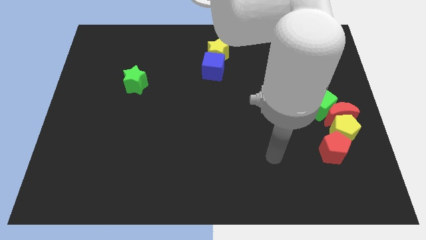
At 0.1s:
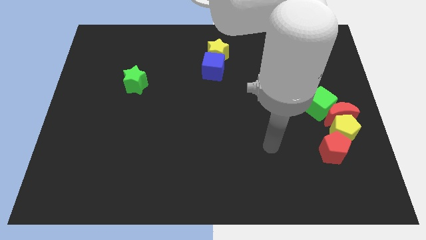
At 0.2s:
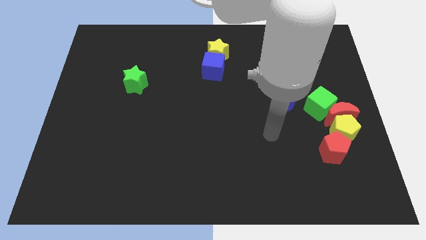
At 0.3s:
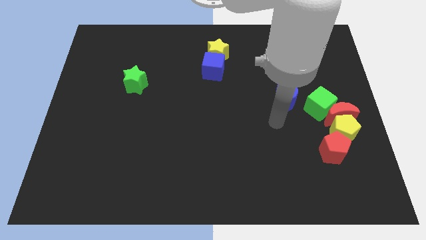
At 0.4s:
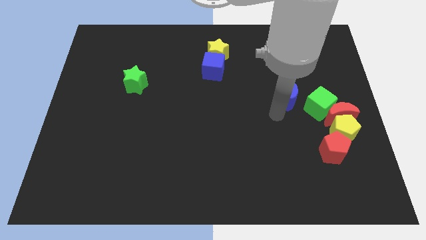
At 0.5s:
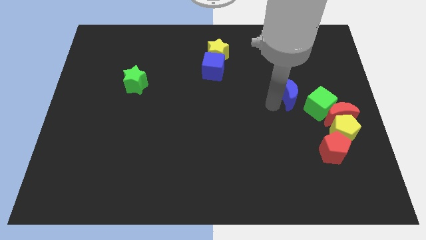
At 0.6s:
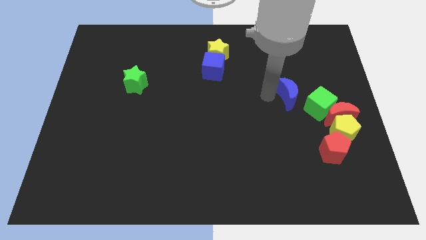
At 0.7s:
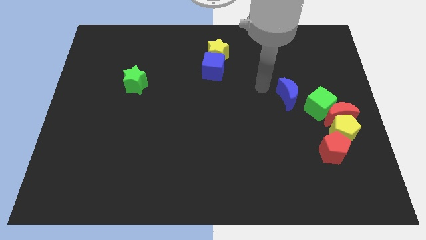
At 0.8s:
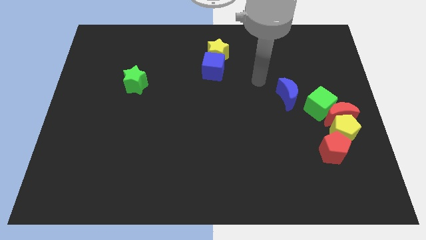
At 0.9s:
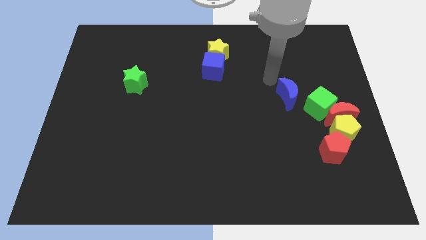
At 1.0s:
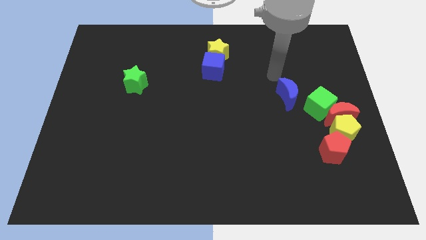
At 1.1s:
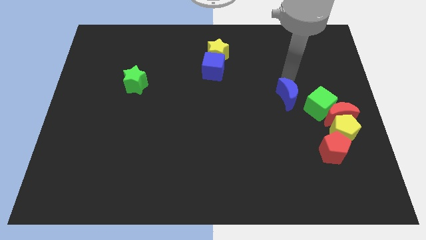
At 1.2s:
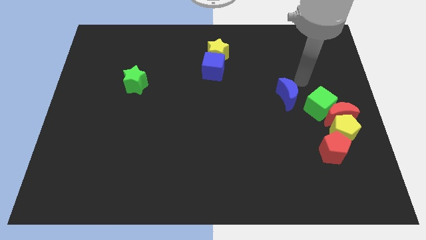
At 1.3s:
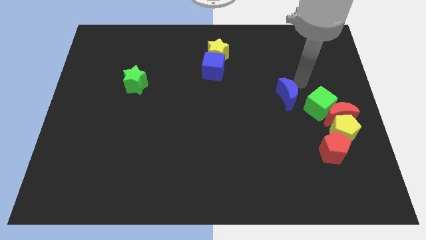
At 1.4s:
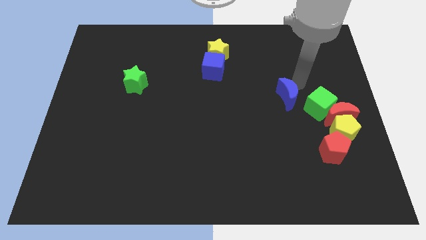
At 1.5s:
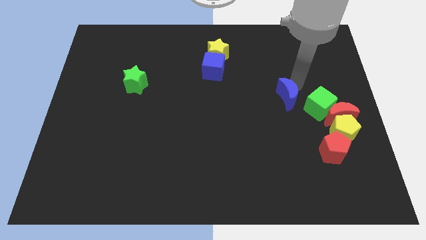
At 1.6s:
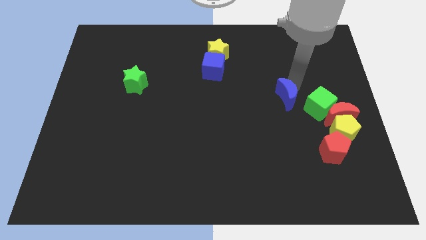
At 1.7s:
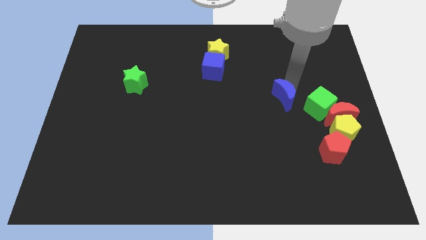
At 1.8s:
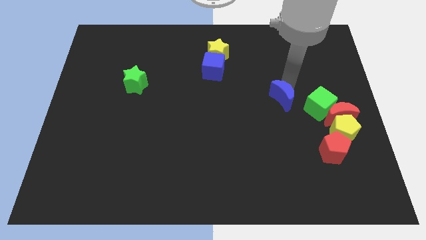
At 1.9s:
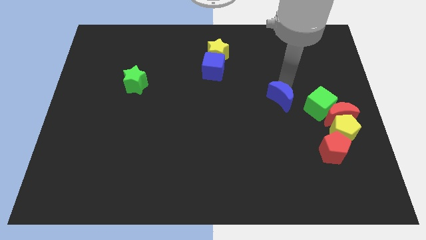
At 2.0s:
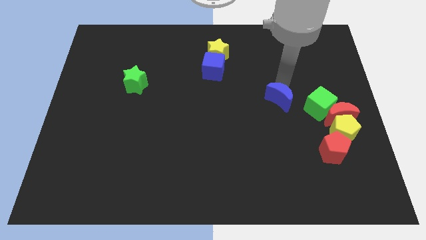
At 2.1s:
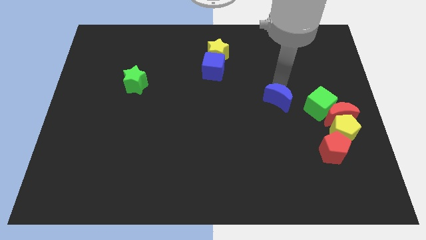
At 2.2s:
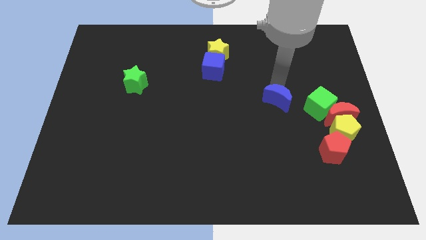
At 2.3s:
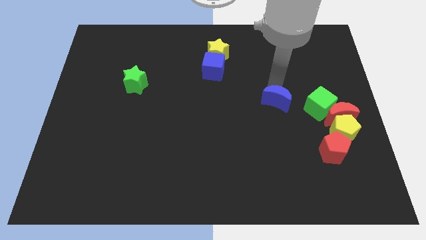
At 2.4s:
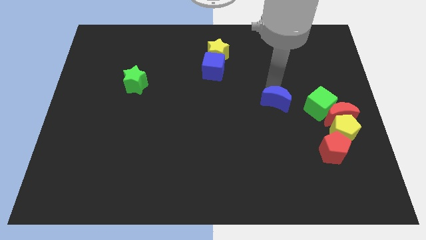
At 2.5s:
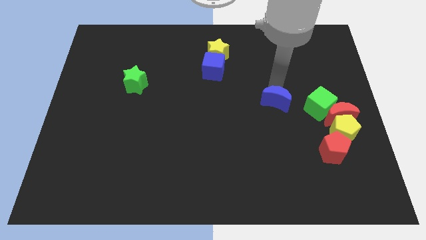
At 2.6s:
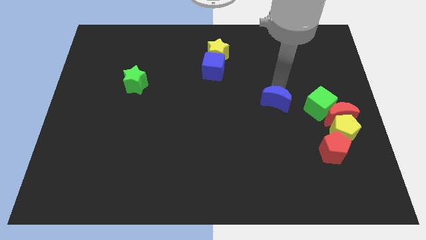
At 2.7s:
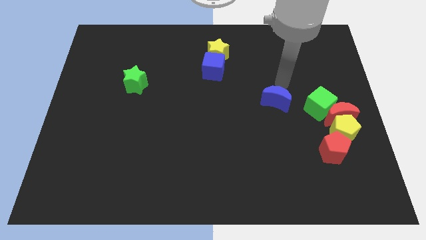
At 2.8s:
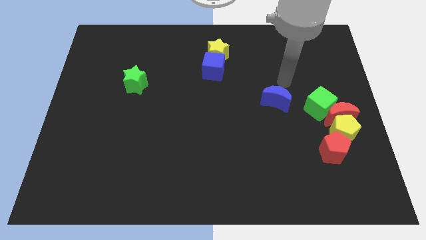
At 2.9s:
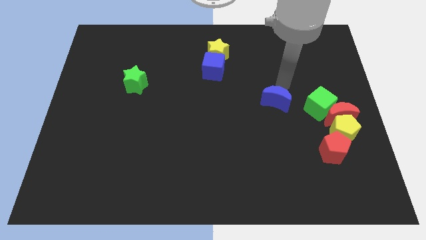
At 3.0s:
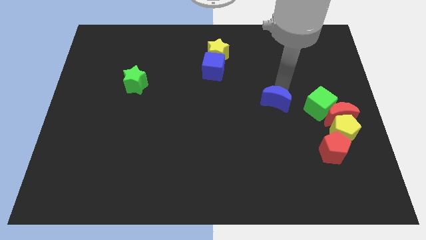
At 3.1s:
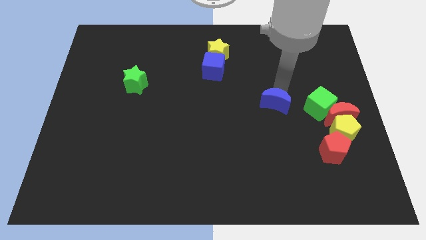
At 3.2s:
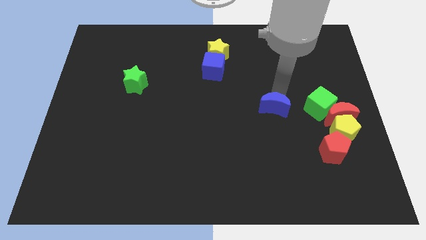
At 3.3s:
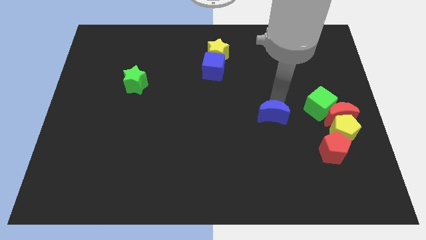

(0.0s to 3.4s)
move the blue moon down and left diagonally slightly

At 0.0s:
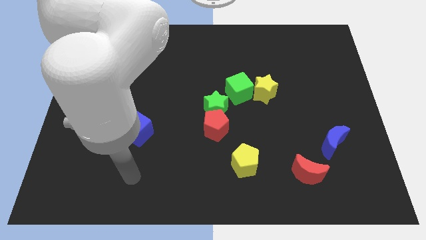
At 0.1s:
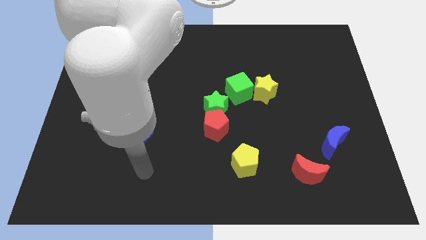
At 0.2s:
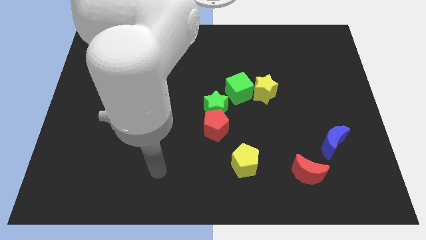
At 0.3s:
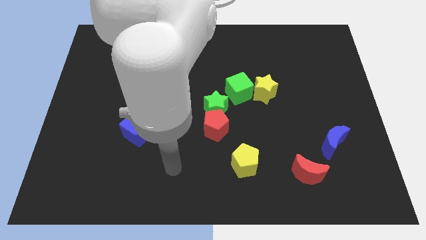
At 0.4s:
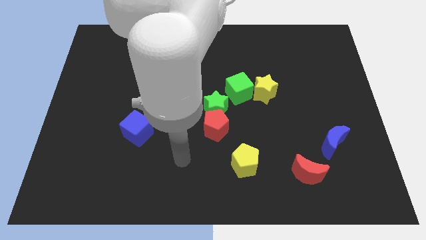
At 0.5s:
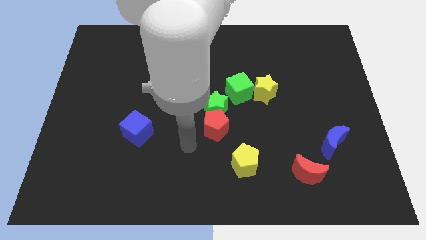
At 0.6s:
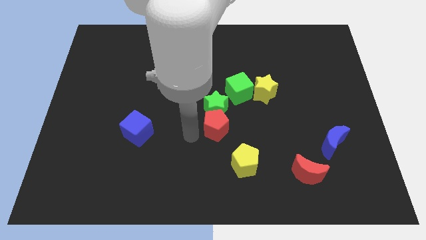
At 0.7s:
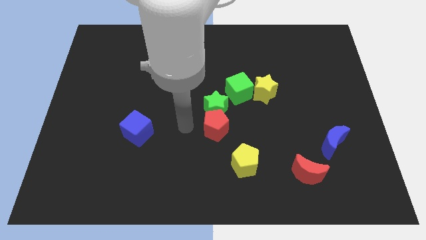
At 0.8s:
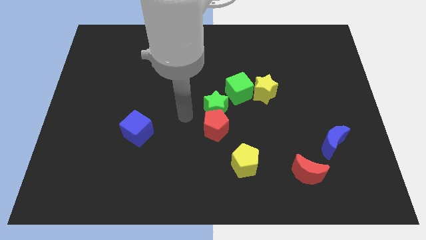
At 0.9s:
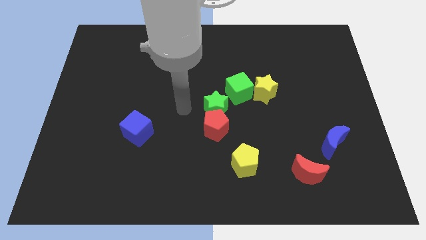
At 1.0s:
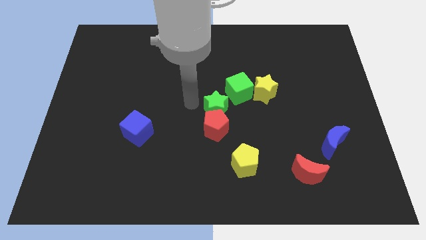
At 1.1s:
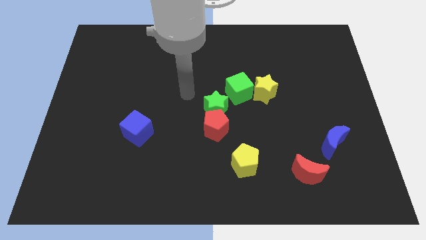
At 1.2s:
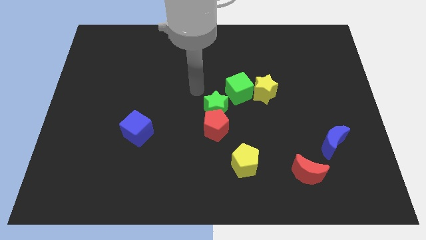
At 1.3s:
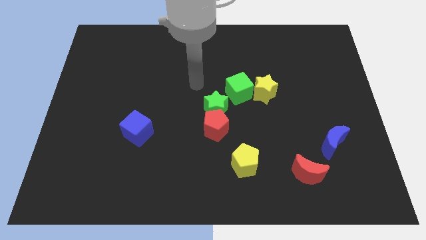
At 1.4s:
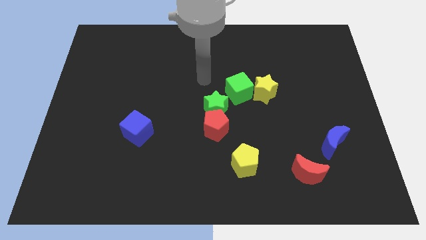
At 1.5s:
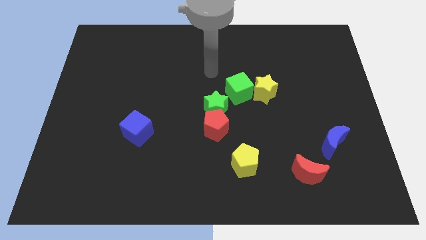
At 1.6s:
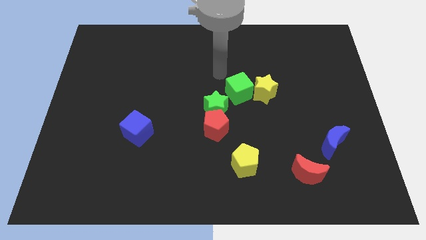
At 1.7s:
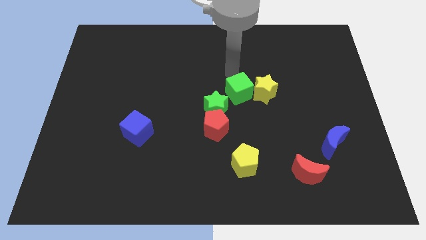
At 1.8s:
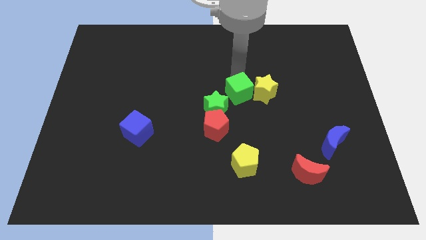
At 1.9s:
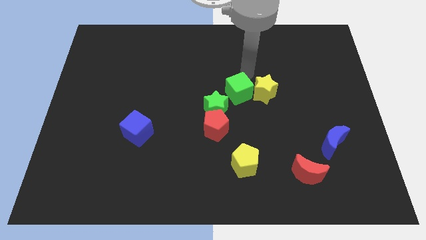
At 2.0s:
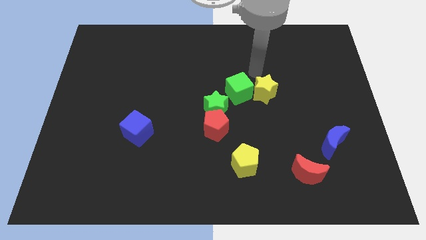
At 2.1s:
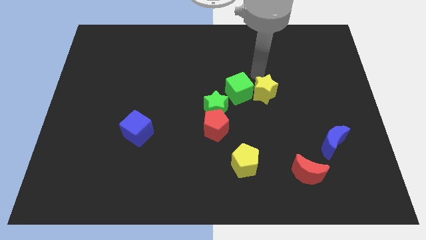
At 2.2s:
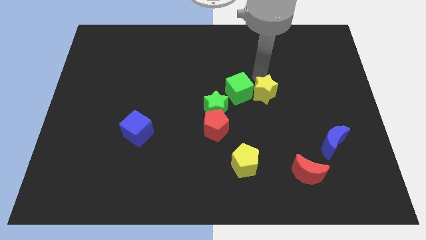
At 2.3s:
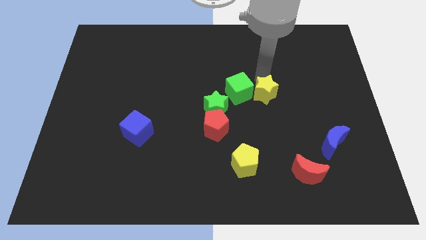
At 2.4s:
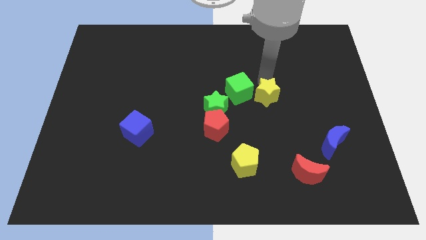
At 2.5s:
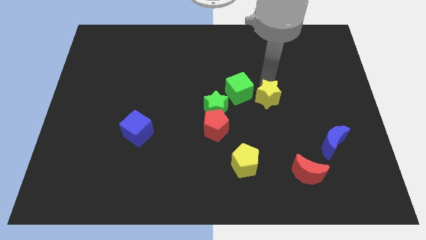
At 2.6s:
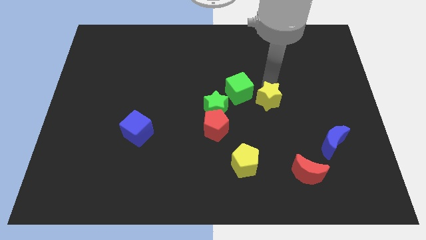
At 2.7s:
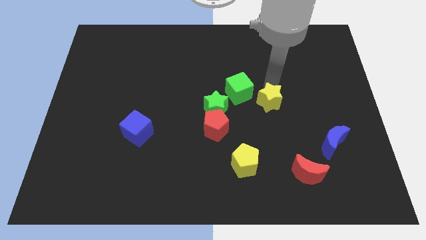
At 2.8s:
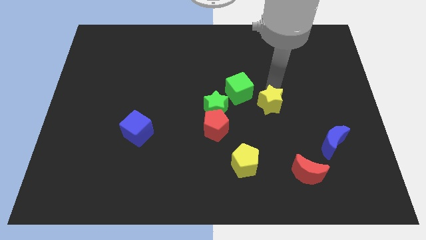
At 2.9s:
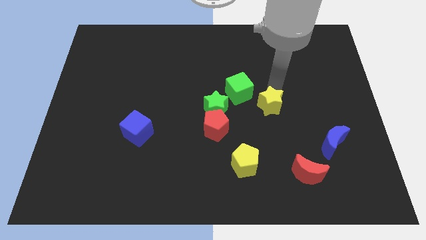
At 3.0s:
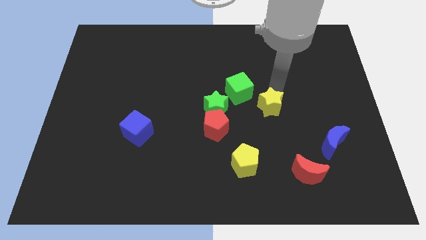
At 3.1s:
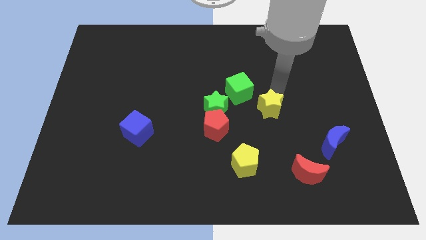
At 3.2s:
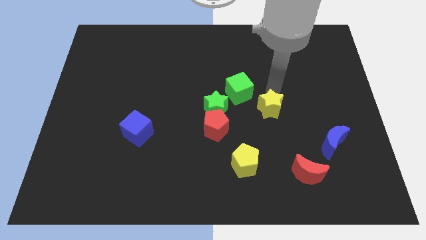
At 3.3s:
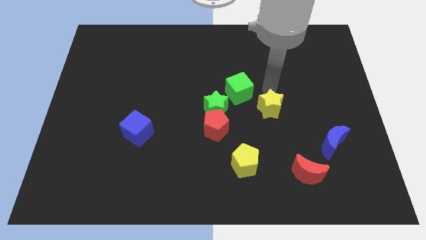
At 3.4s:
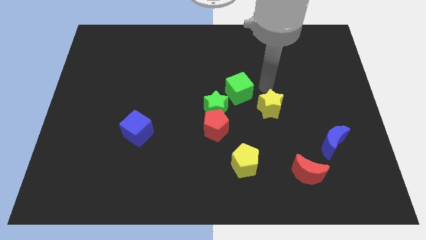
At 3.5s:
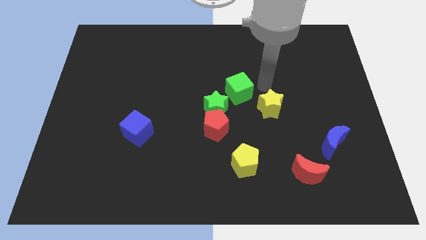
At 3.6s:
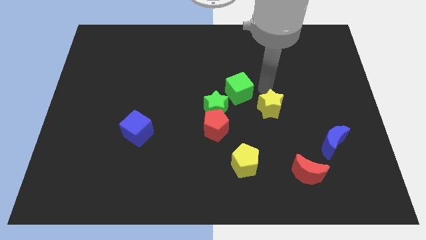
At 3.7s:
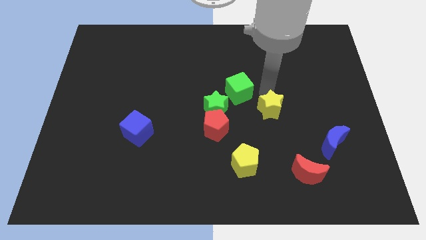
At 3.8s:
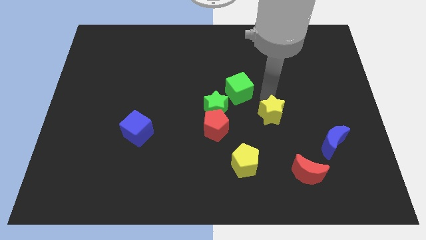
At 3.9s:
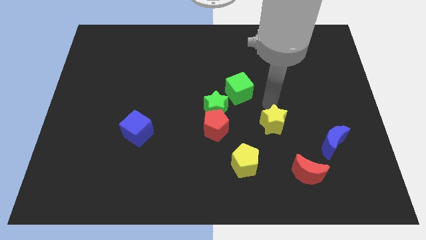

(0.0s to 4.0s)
move the yellow star a bit downwards

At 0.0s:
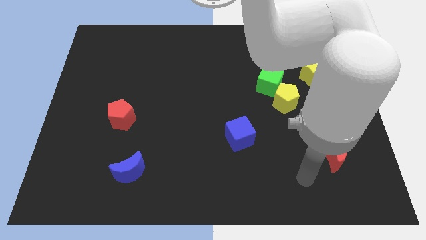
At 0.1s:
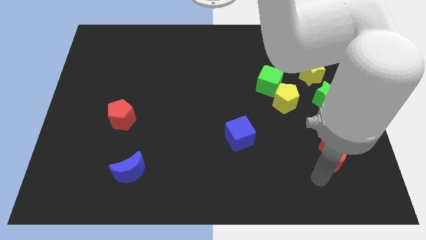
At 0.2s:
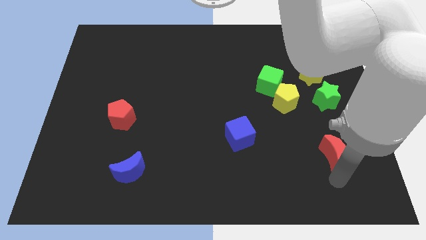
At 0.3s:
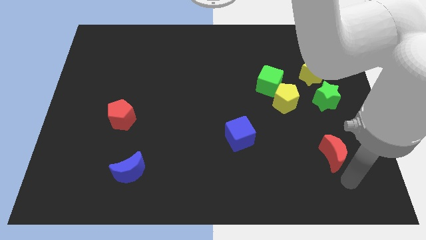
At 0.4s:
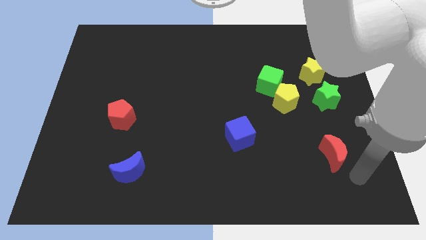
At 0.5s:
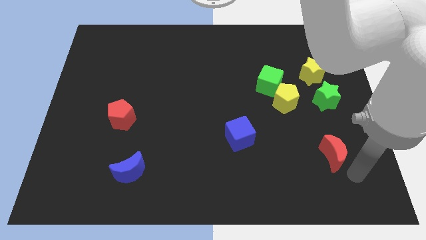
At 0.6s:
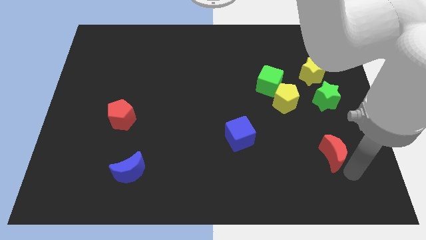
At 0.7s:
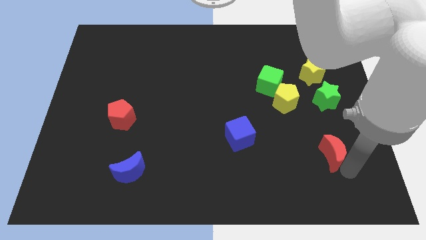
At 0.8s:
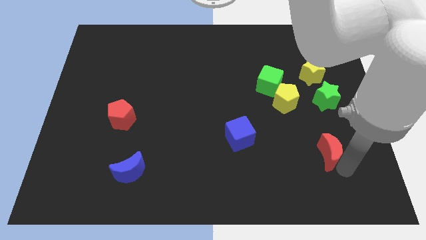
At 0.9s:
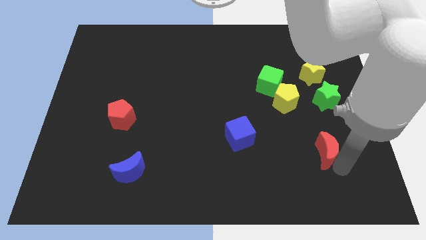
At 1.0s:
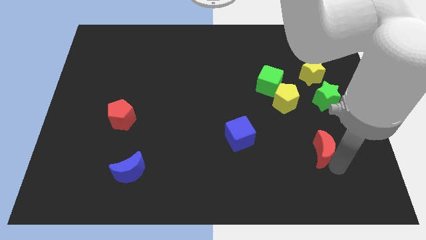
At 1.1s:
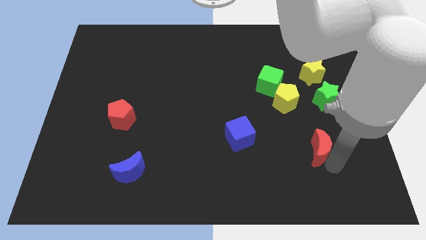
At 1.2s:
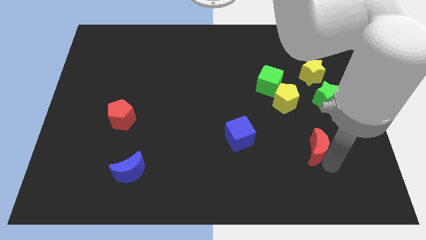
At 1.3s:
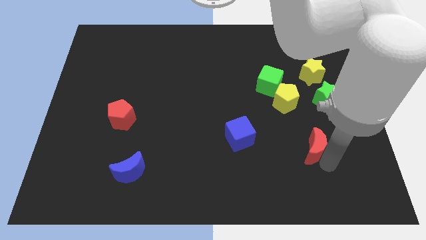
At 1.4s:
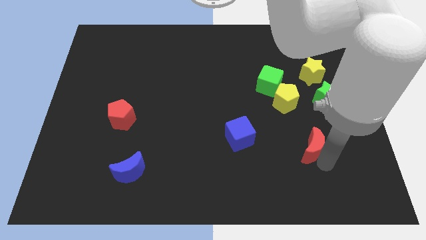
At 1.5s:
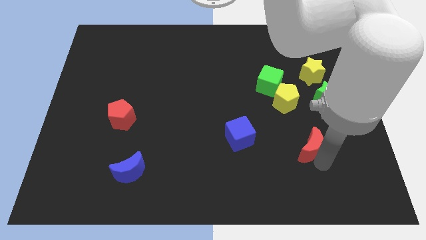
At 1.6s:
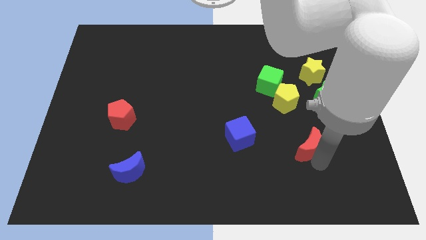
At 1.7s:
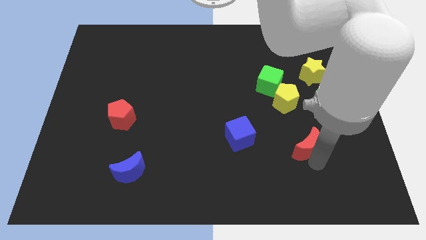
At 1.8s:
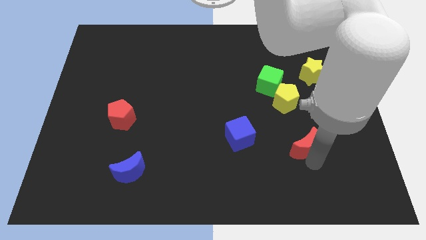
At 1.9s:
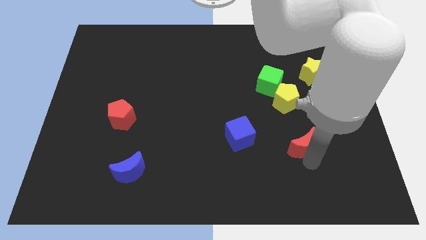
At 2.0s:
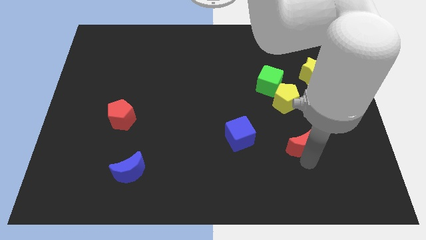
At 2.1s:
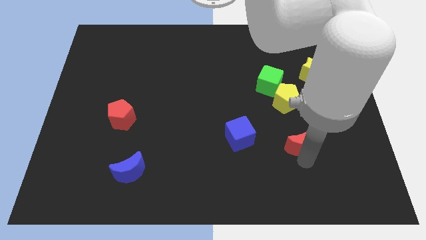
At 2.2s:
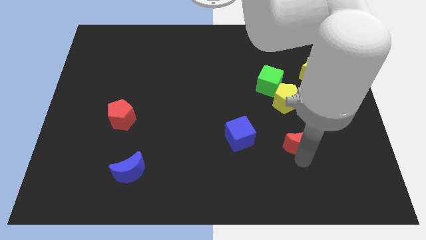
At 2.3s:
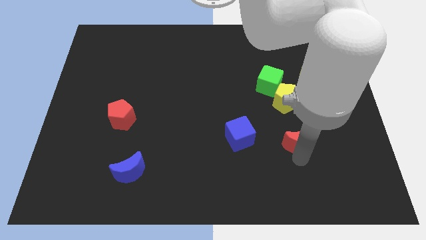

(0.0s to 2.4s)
move the red moon a bit up and left diagonally
